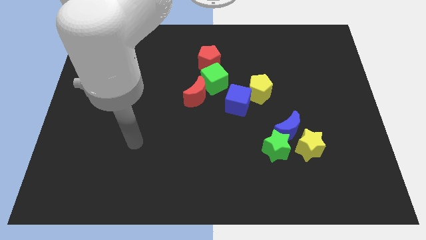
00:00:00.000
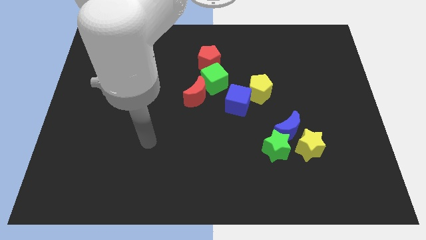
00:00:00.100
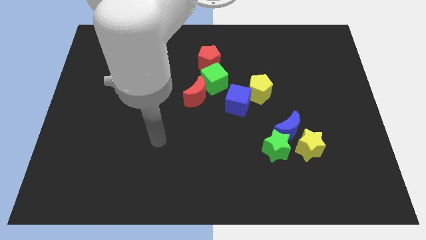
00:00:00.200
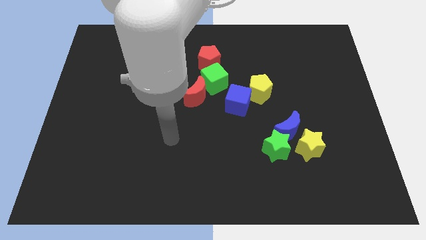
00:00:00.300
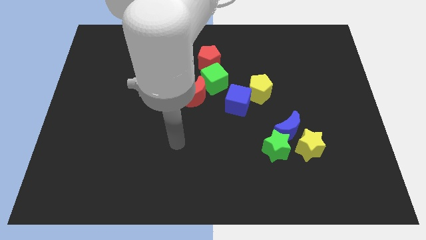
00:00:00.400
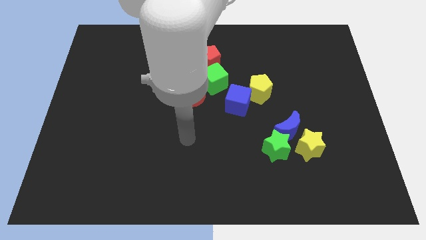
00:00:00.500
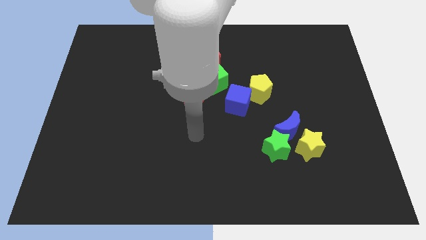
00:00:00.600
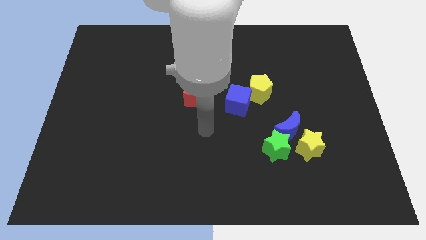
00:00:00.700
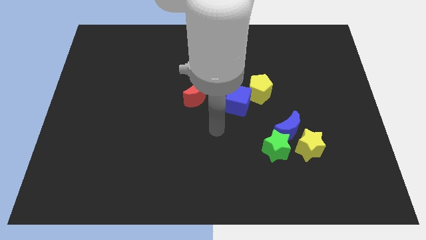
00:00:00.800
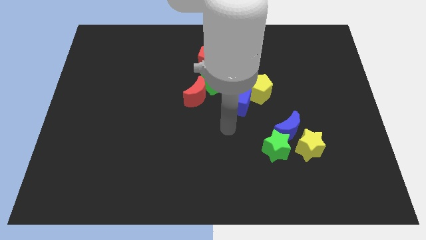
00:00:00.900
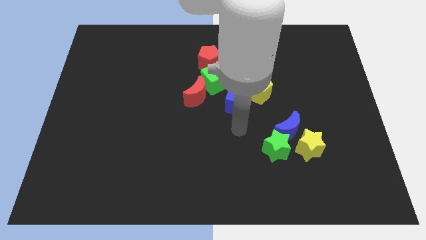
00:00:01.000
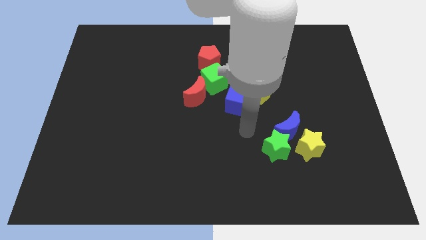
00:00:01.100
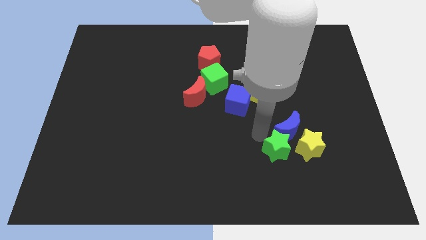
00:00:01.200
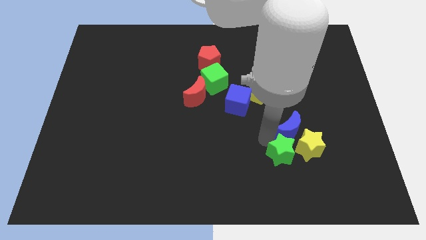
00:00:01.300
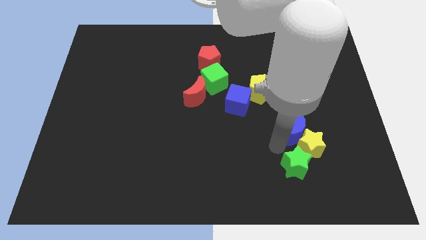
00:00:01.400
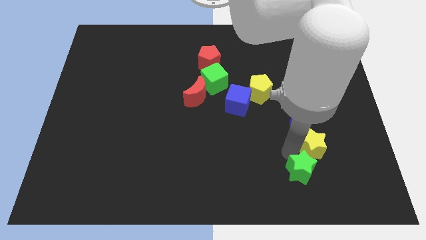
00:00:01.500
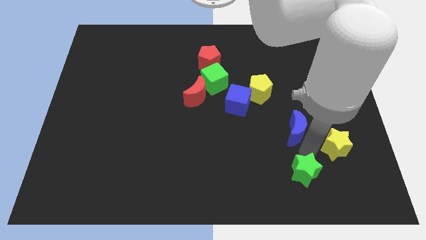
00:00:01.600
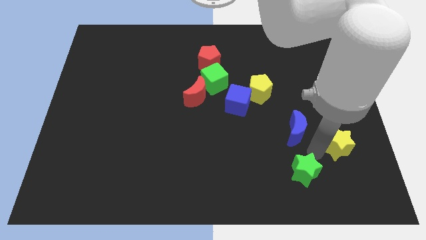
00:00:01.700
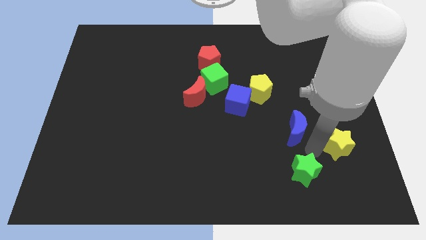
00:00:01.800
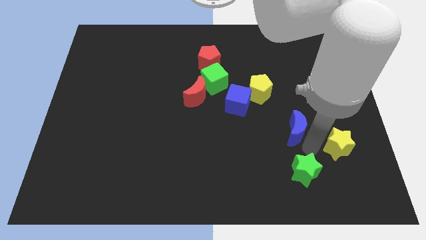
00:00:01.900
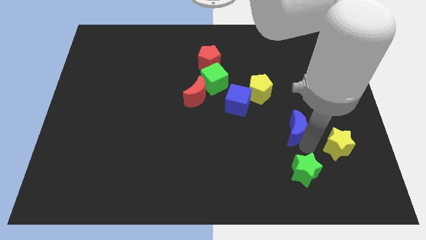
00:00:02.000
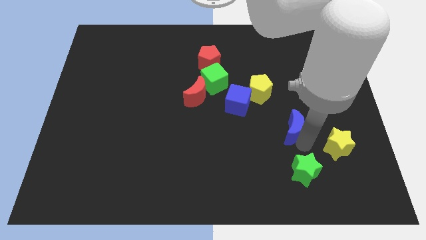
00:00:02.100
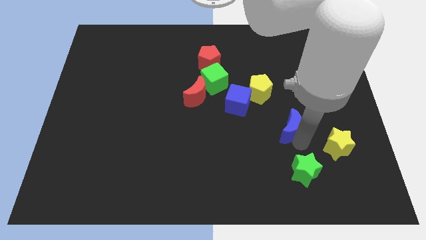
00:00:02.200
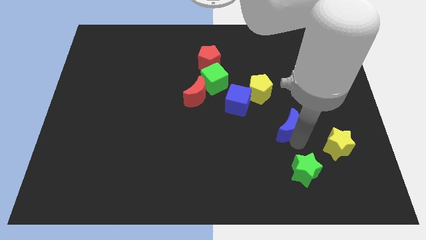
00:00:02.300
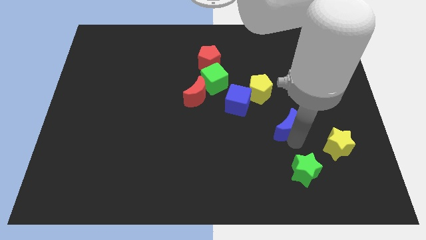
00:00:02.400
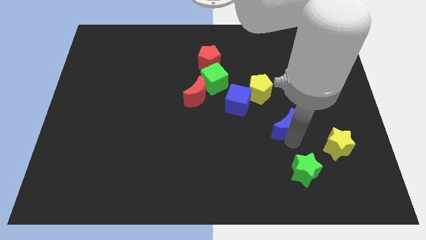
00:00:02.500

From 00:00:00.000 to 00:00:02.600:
move the blue moon away from the green star and yellow star

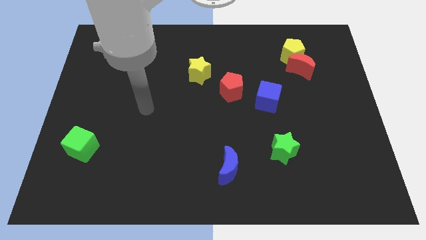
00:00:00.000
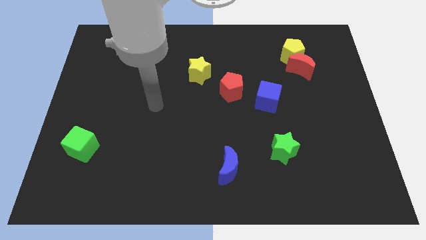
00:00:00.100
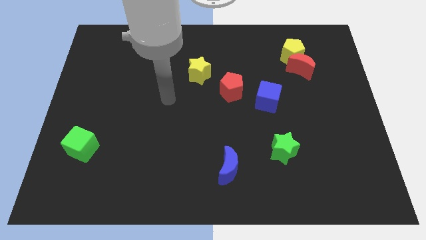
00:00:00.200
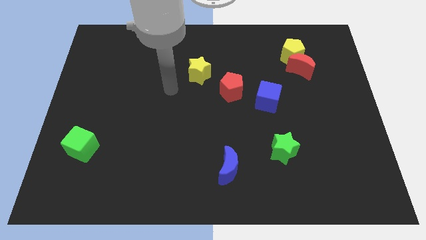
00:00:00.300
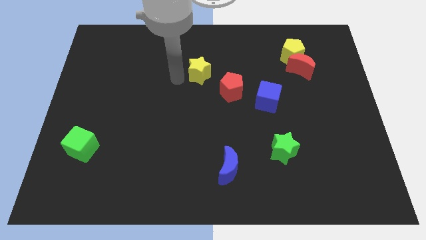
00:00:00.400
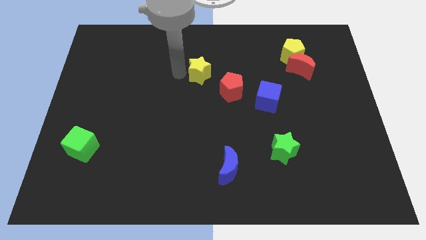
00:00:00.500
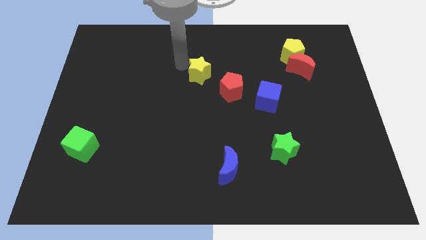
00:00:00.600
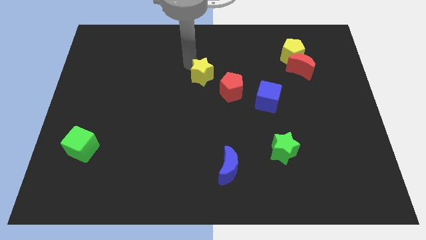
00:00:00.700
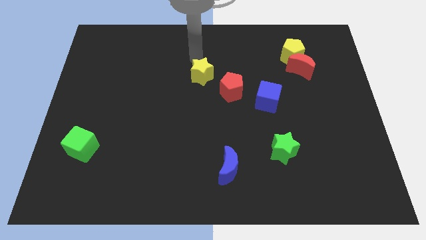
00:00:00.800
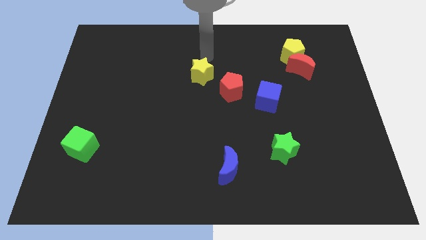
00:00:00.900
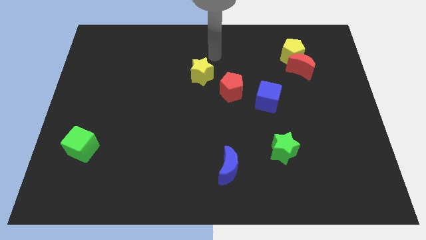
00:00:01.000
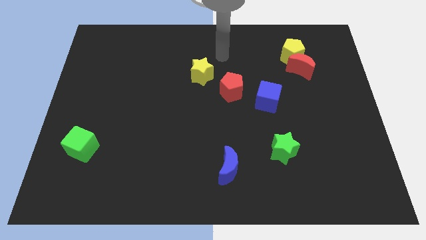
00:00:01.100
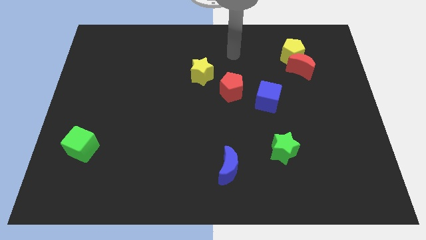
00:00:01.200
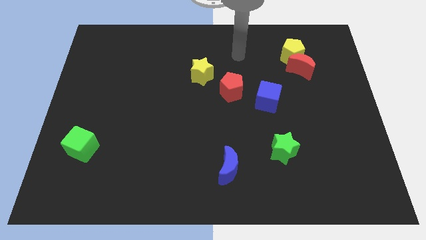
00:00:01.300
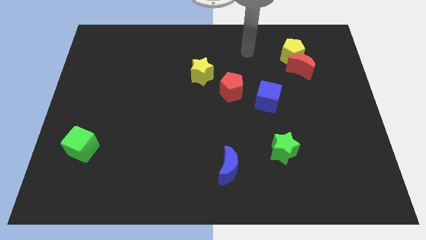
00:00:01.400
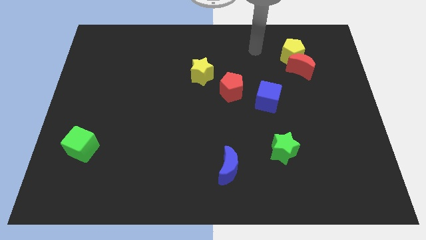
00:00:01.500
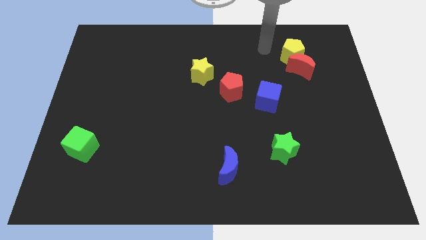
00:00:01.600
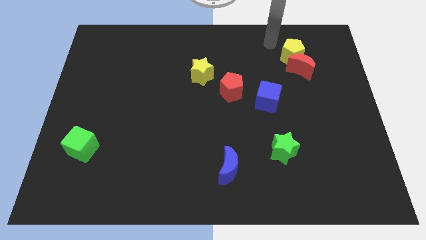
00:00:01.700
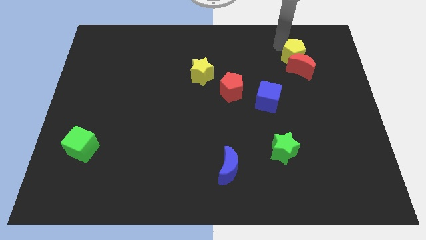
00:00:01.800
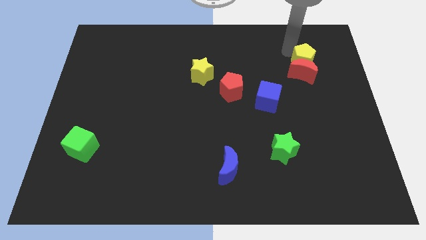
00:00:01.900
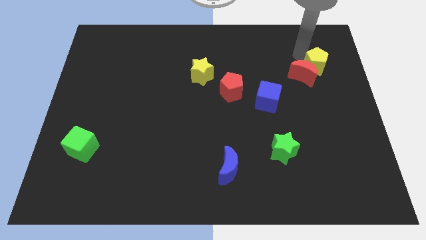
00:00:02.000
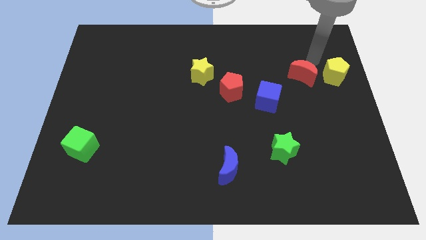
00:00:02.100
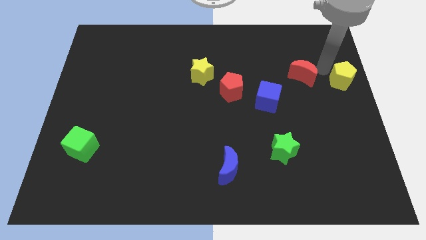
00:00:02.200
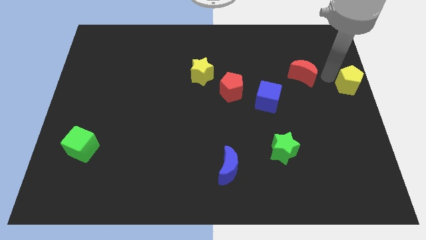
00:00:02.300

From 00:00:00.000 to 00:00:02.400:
move the red moon away from the yellow pentagon

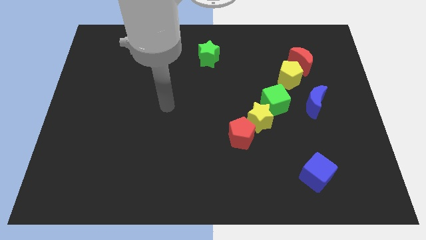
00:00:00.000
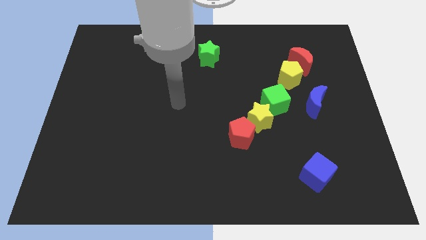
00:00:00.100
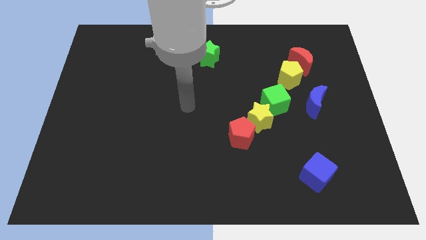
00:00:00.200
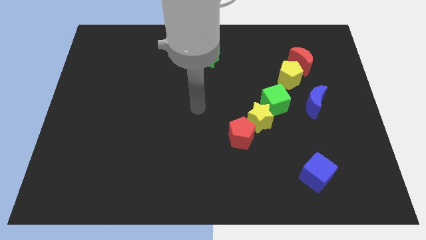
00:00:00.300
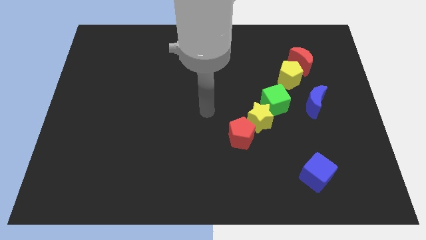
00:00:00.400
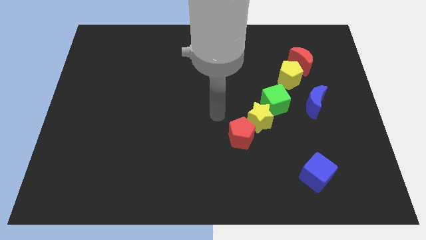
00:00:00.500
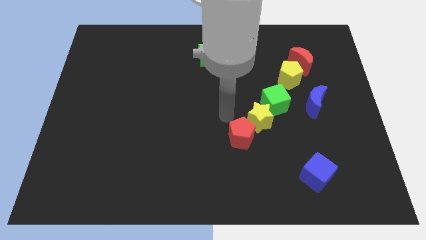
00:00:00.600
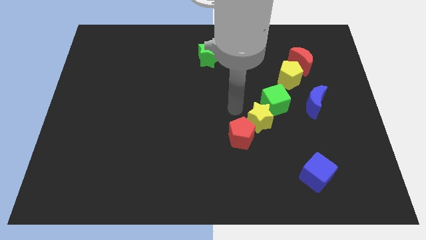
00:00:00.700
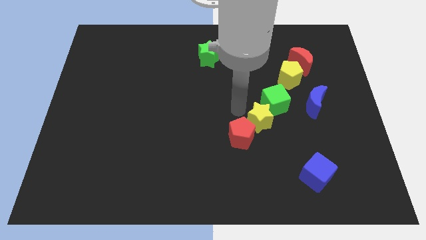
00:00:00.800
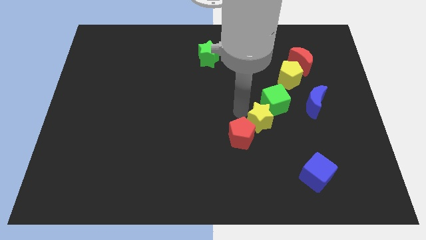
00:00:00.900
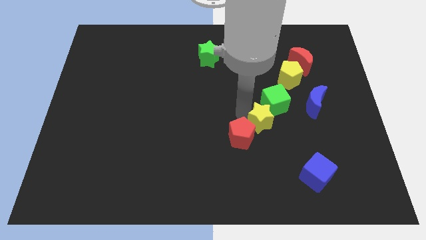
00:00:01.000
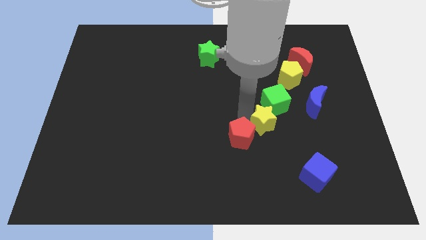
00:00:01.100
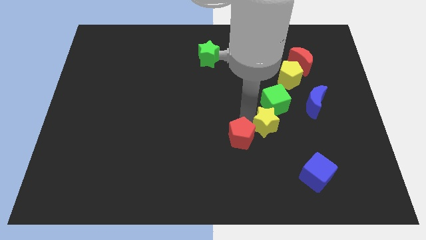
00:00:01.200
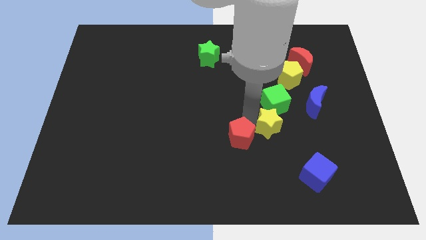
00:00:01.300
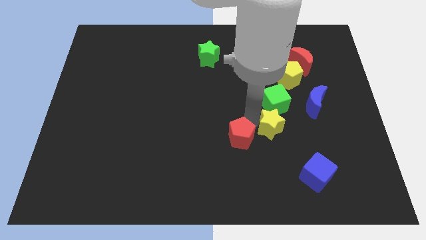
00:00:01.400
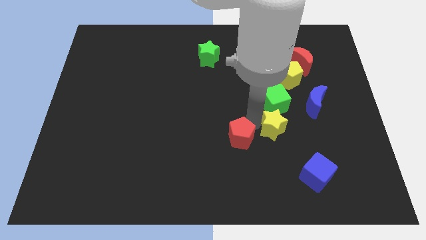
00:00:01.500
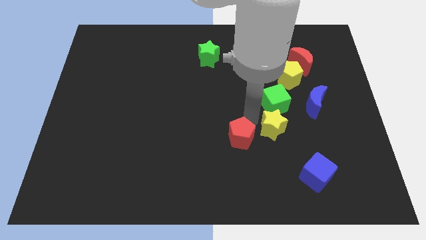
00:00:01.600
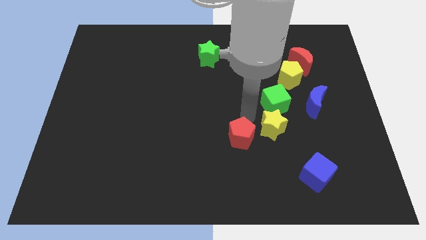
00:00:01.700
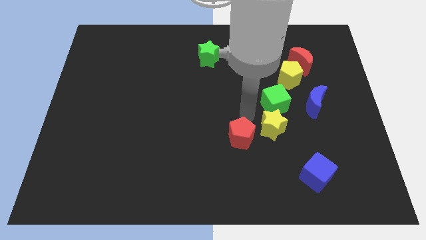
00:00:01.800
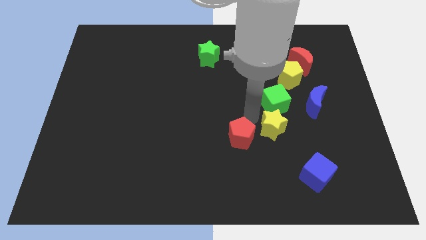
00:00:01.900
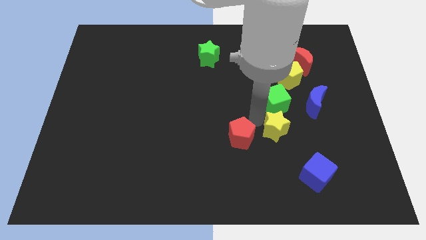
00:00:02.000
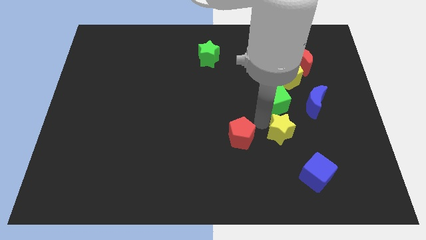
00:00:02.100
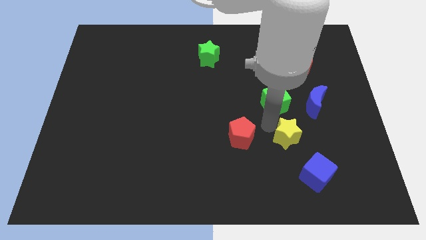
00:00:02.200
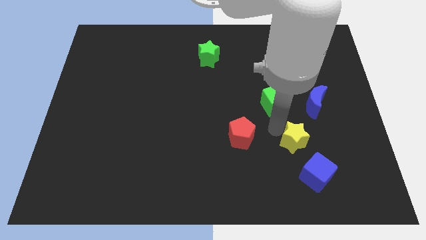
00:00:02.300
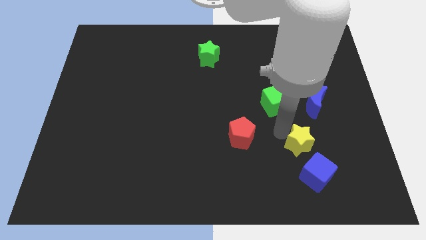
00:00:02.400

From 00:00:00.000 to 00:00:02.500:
move the yellow star away from the green cube and red pentagon

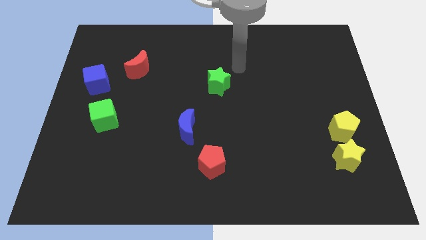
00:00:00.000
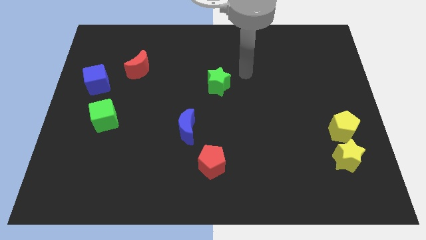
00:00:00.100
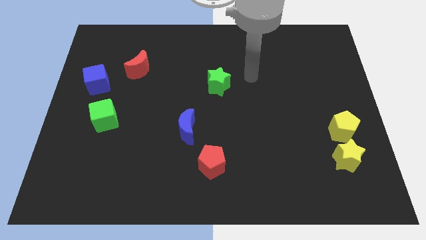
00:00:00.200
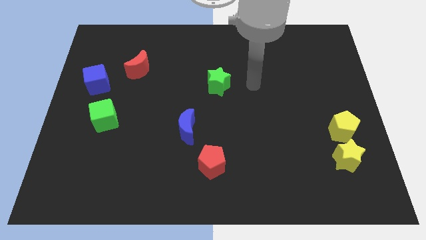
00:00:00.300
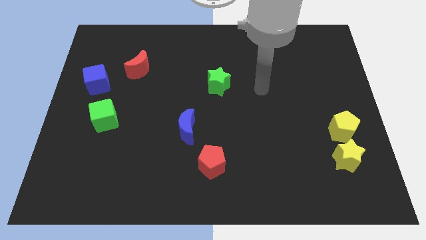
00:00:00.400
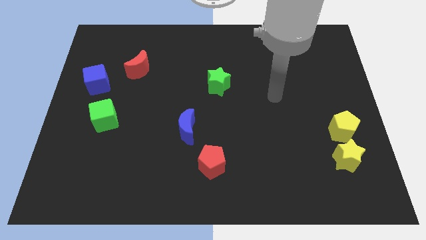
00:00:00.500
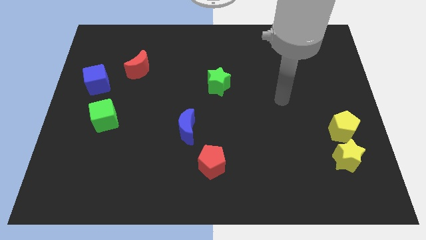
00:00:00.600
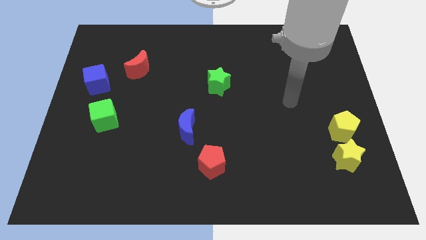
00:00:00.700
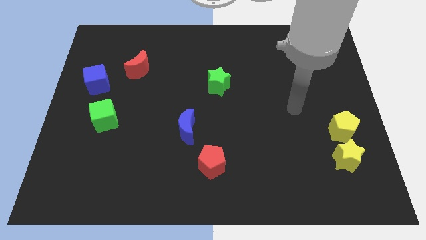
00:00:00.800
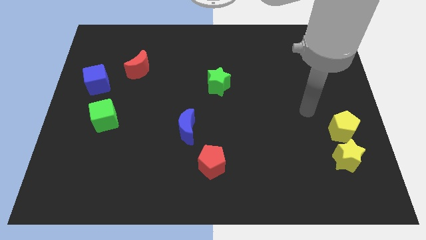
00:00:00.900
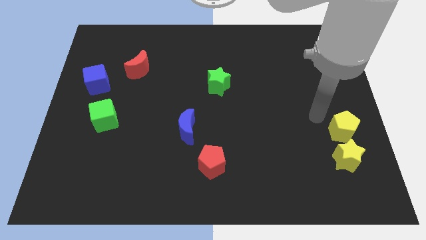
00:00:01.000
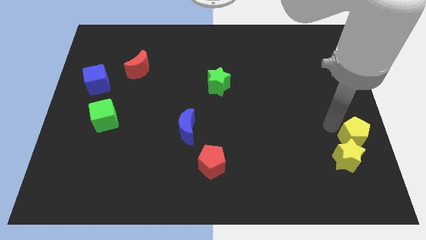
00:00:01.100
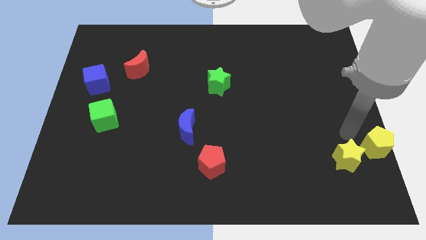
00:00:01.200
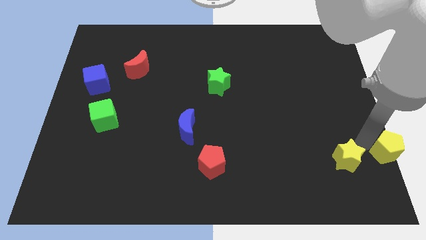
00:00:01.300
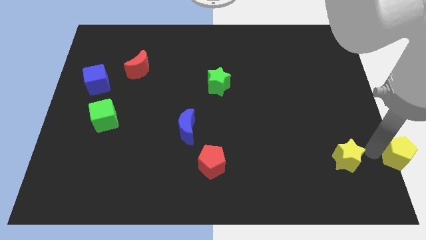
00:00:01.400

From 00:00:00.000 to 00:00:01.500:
separate the yellow star from the yellow pentagon

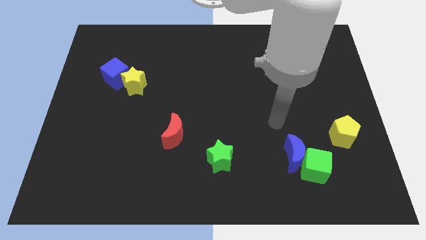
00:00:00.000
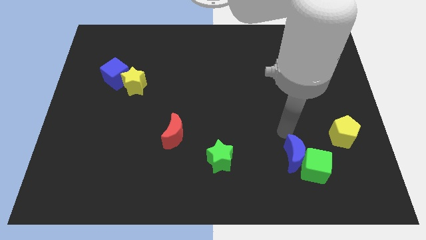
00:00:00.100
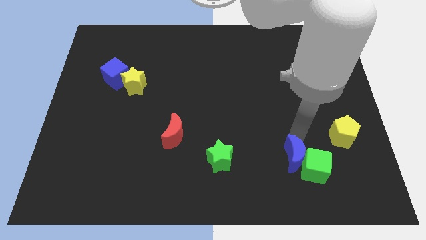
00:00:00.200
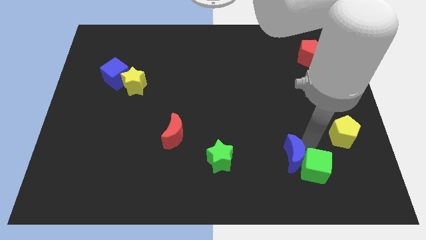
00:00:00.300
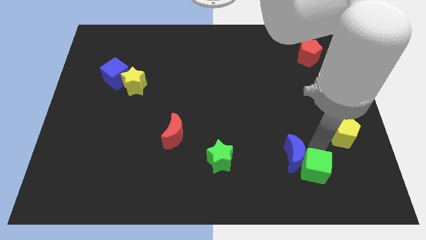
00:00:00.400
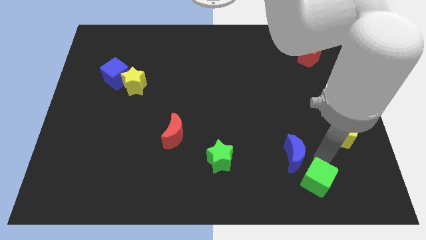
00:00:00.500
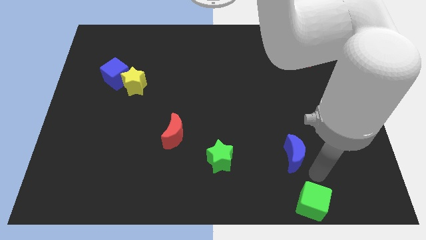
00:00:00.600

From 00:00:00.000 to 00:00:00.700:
separate the blue moon from the green cube
